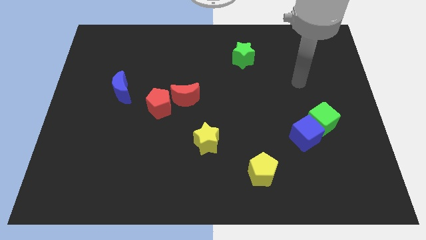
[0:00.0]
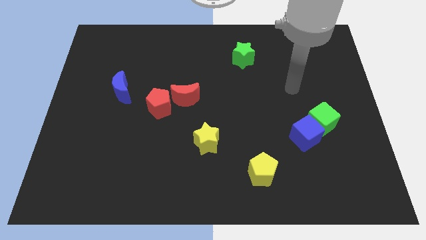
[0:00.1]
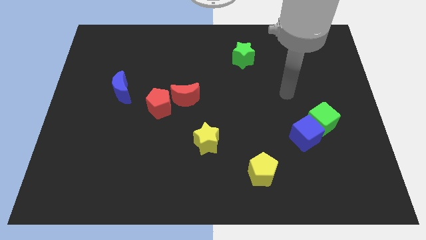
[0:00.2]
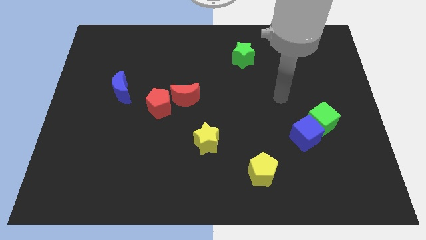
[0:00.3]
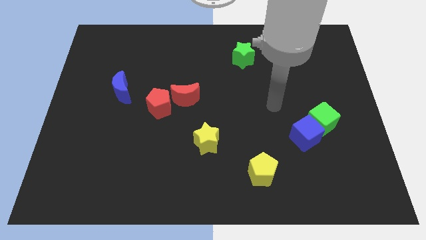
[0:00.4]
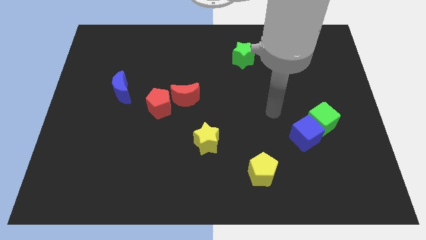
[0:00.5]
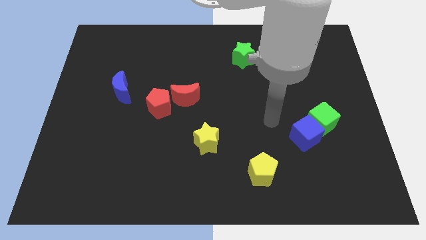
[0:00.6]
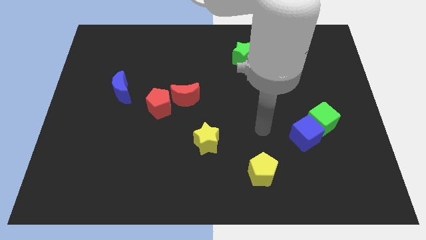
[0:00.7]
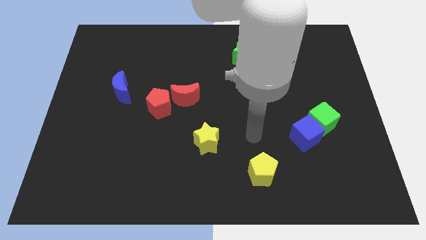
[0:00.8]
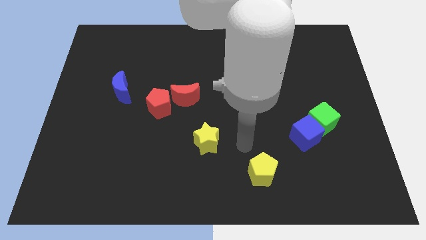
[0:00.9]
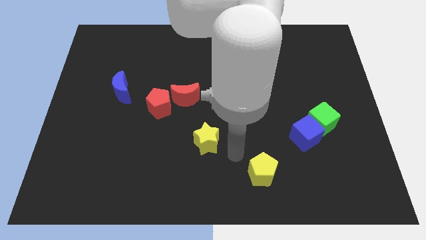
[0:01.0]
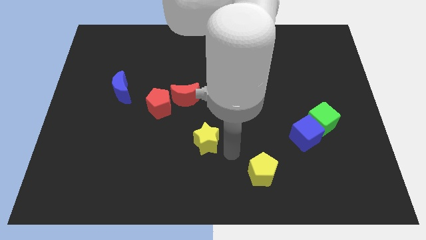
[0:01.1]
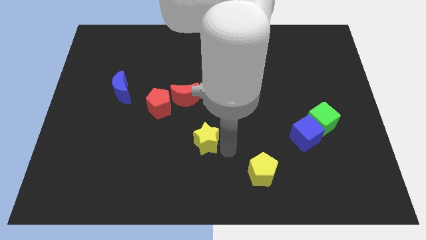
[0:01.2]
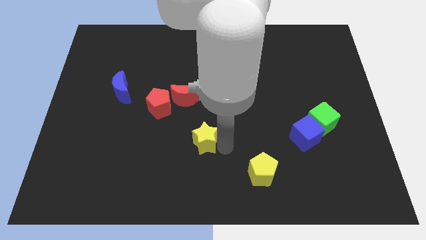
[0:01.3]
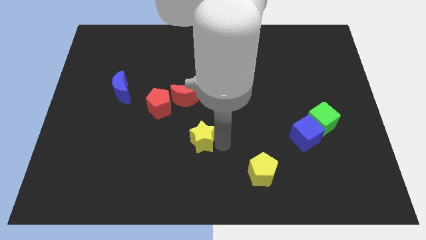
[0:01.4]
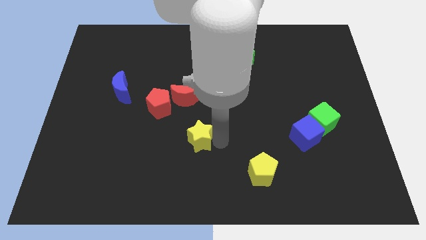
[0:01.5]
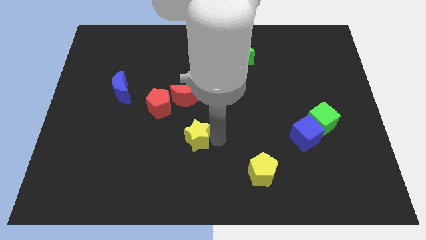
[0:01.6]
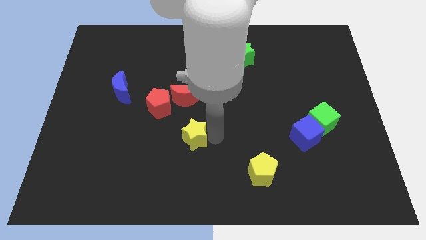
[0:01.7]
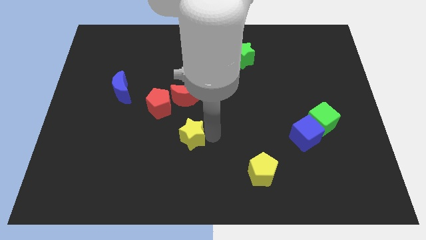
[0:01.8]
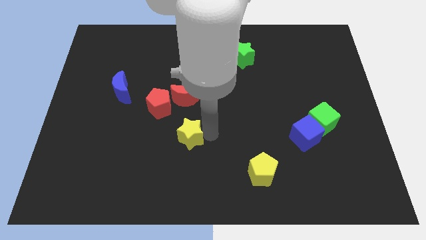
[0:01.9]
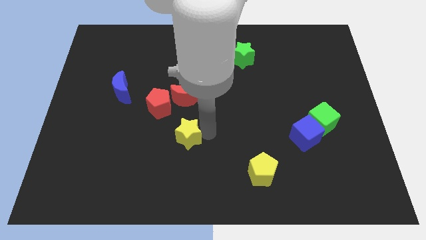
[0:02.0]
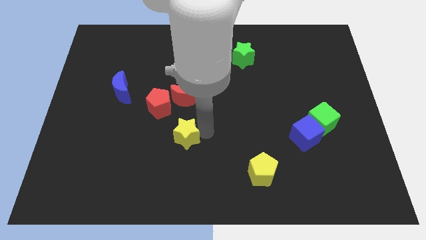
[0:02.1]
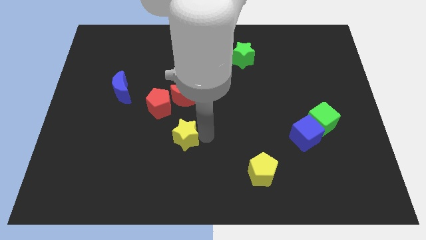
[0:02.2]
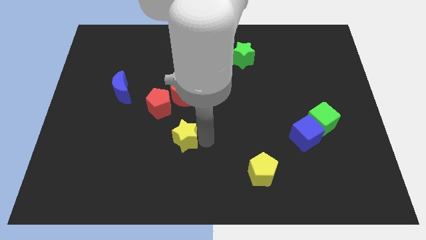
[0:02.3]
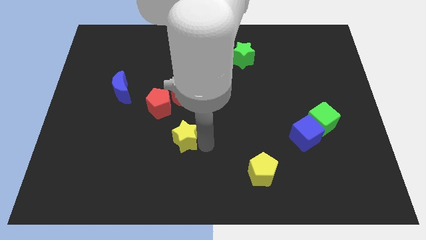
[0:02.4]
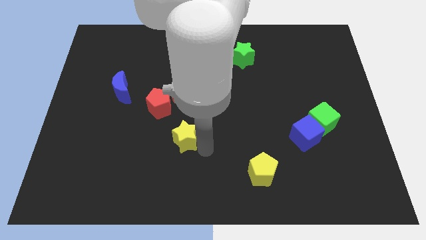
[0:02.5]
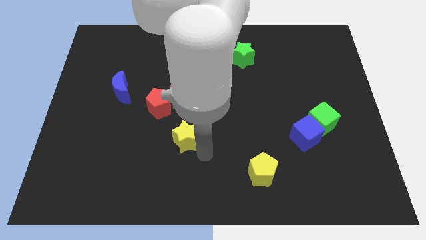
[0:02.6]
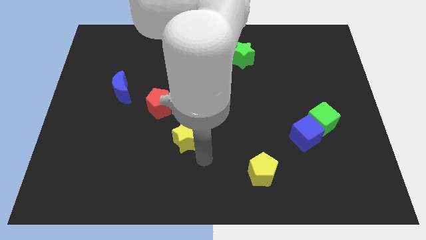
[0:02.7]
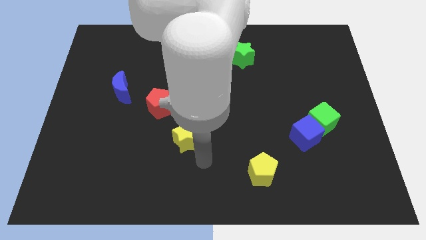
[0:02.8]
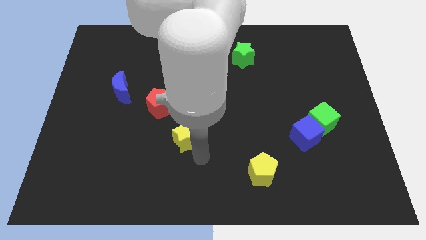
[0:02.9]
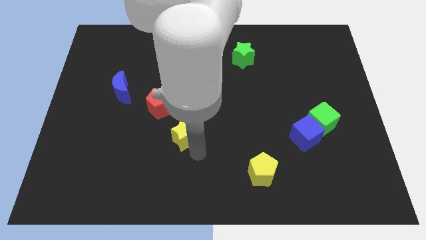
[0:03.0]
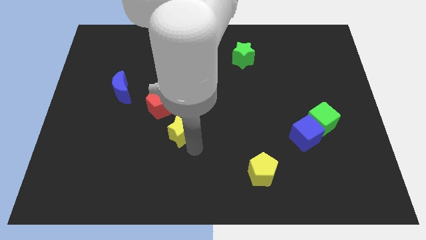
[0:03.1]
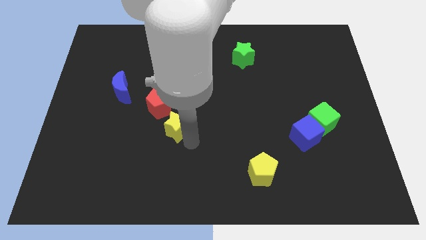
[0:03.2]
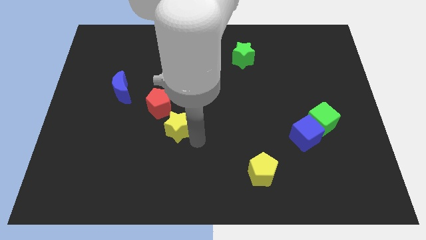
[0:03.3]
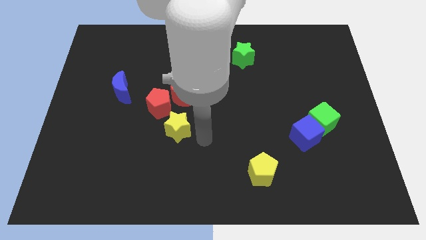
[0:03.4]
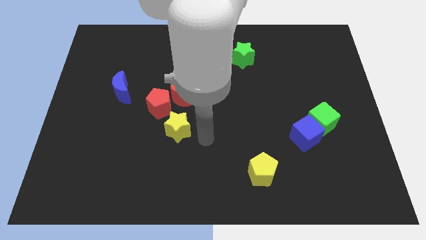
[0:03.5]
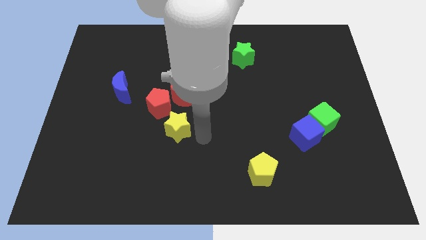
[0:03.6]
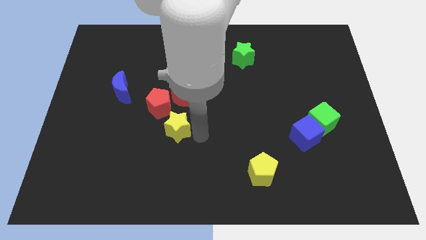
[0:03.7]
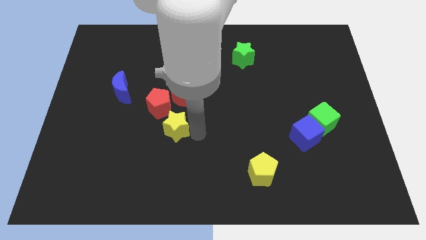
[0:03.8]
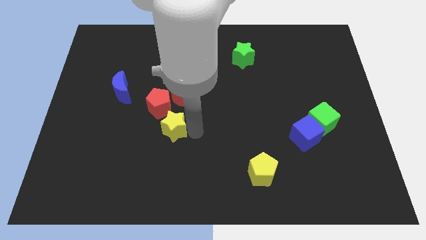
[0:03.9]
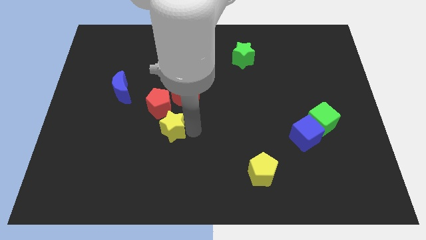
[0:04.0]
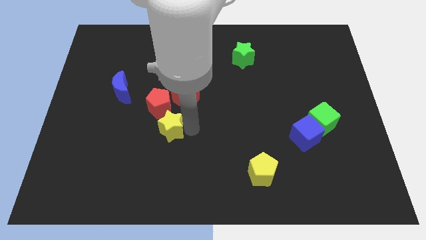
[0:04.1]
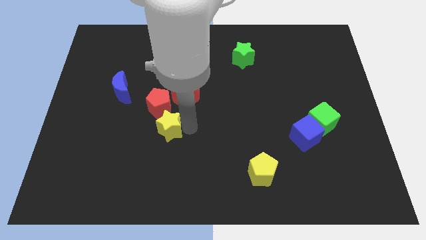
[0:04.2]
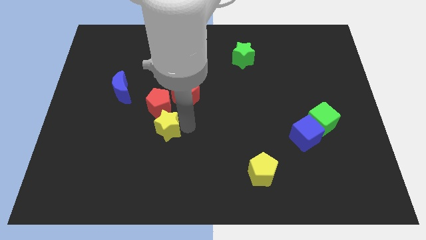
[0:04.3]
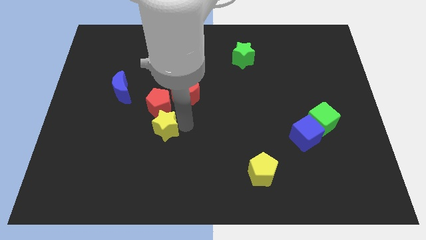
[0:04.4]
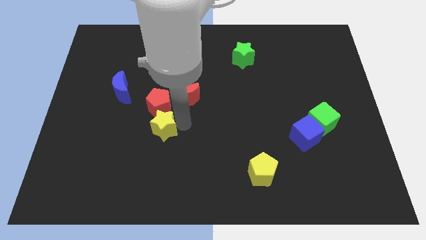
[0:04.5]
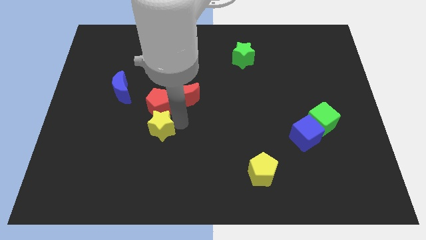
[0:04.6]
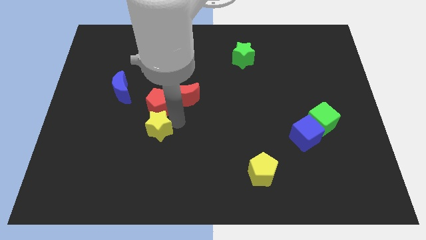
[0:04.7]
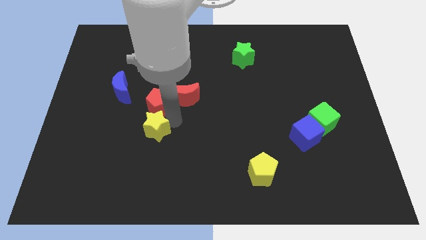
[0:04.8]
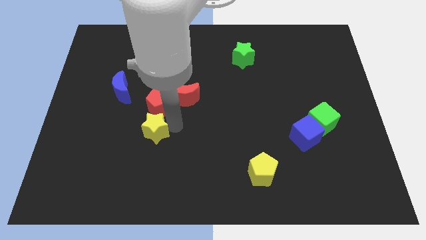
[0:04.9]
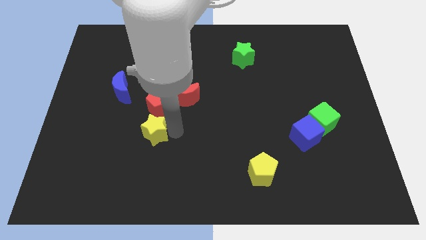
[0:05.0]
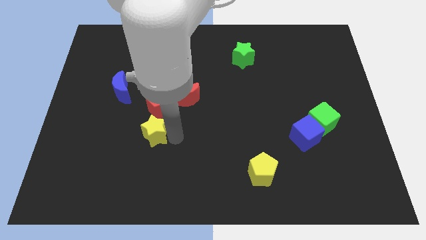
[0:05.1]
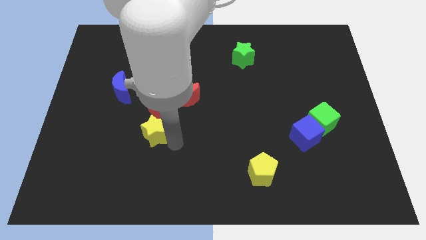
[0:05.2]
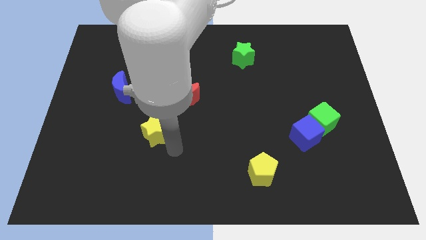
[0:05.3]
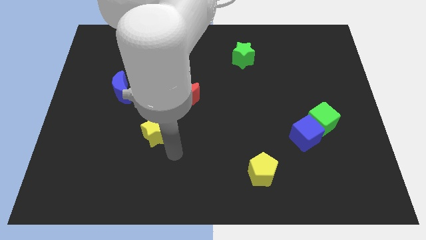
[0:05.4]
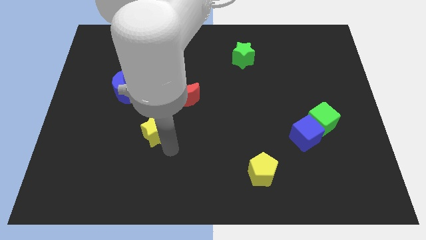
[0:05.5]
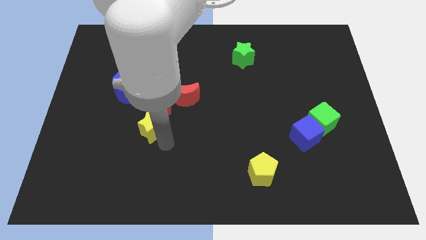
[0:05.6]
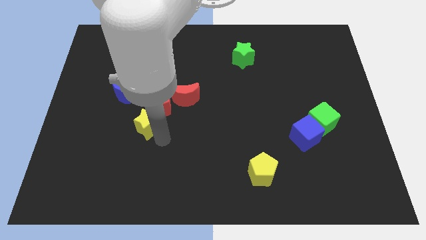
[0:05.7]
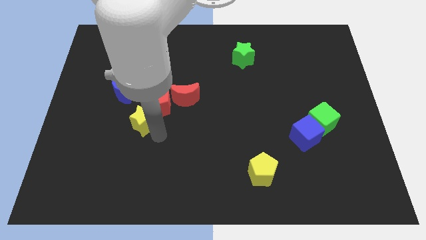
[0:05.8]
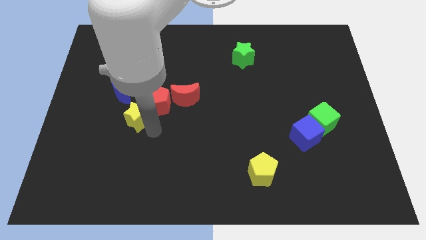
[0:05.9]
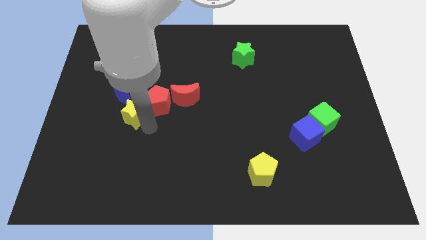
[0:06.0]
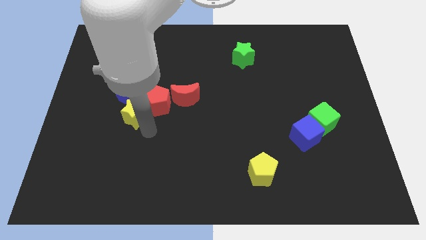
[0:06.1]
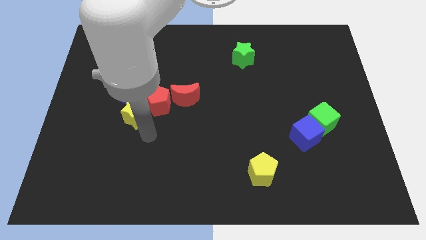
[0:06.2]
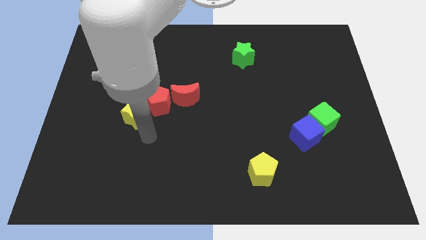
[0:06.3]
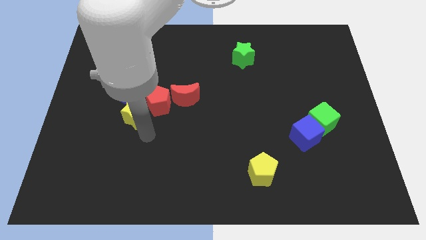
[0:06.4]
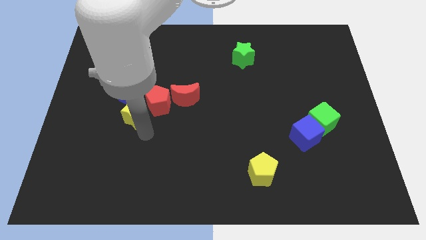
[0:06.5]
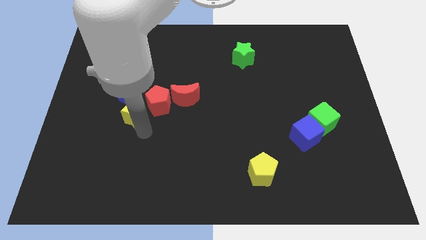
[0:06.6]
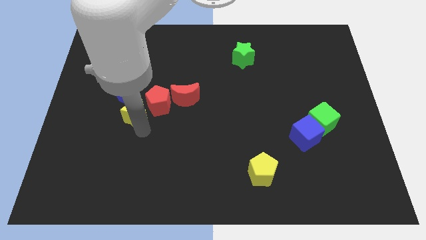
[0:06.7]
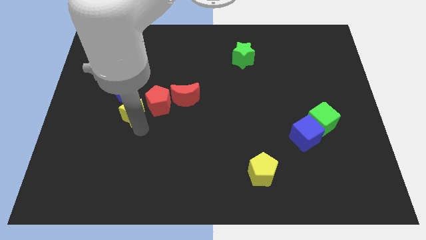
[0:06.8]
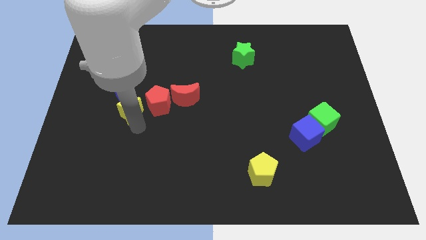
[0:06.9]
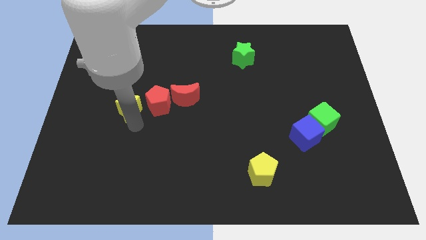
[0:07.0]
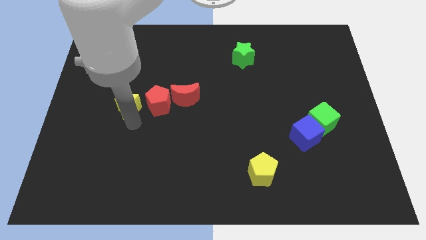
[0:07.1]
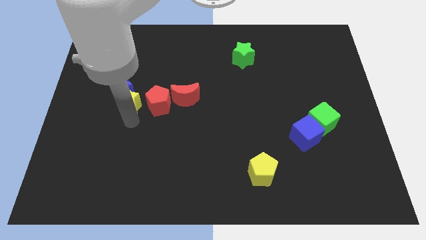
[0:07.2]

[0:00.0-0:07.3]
slide the yellow star towards the blue moon
